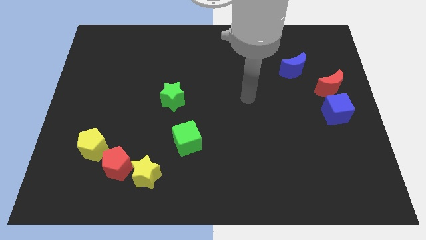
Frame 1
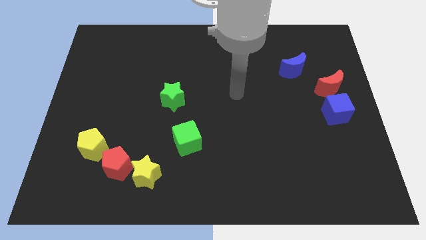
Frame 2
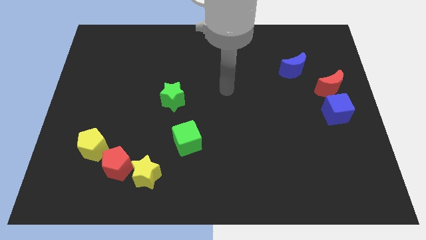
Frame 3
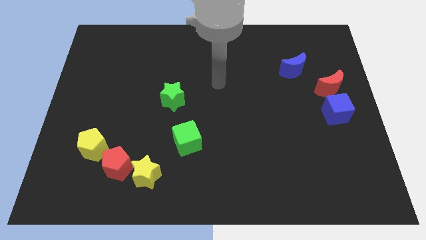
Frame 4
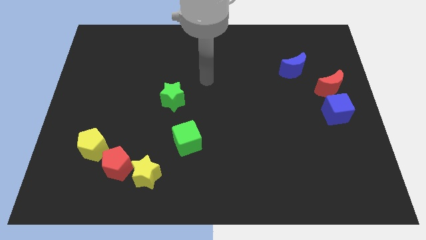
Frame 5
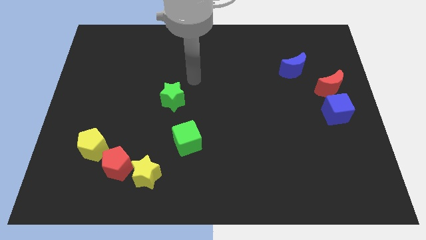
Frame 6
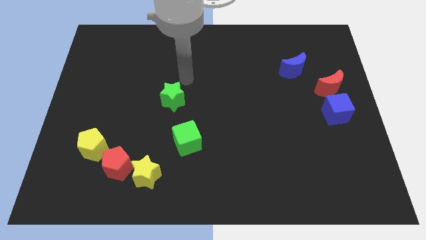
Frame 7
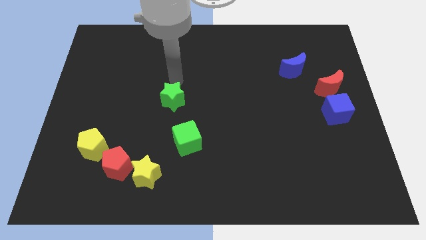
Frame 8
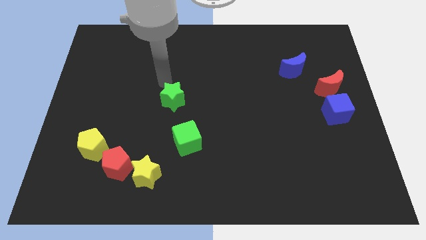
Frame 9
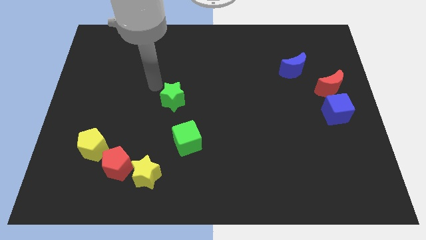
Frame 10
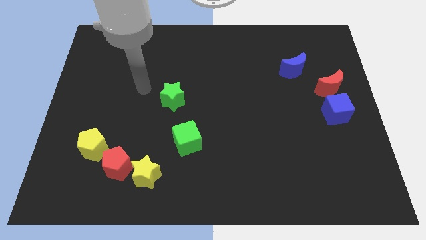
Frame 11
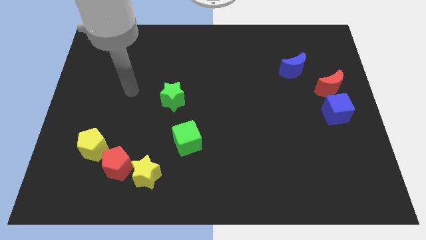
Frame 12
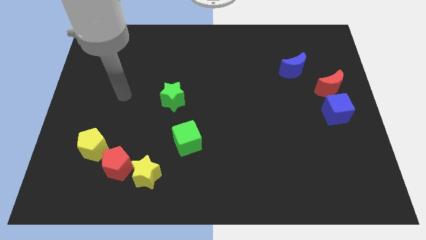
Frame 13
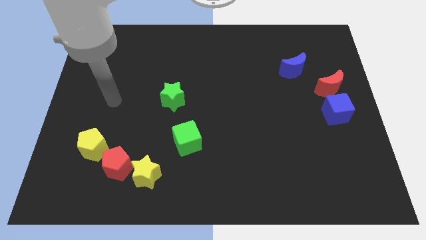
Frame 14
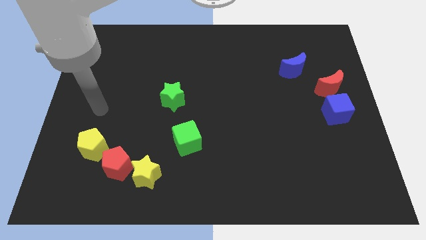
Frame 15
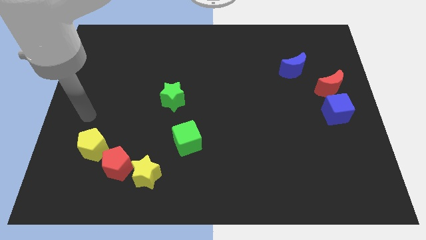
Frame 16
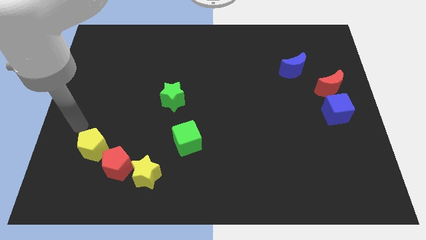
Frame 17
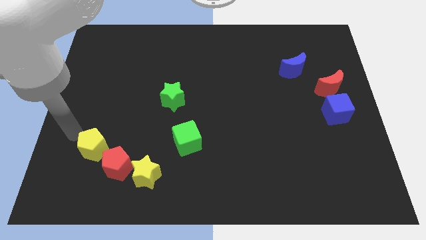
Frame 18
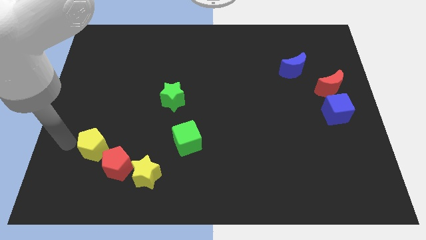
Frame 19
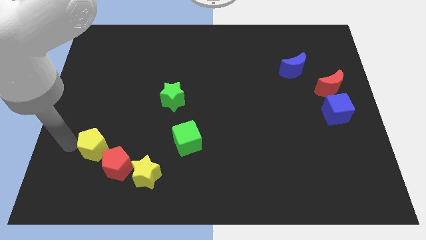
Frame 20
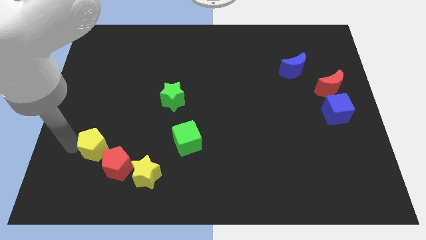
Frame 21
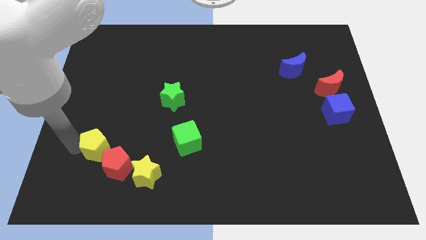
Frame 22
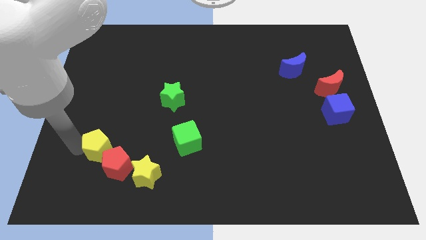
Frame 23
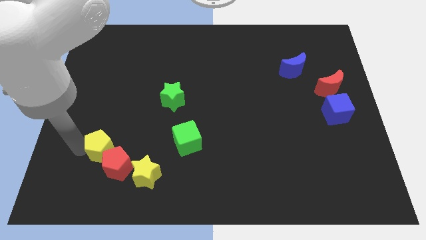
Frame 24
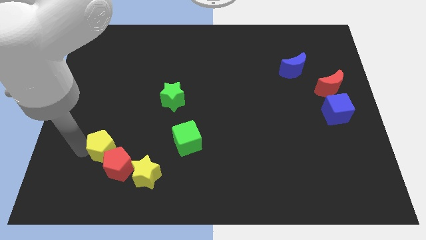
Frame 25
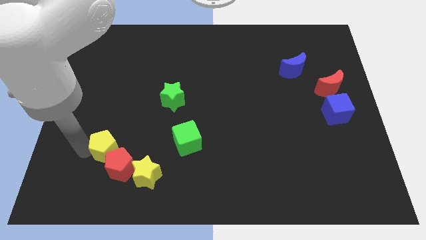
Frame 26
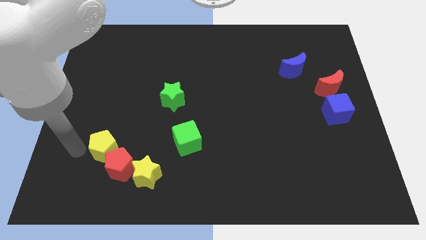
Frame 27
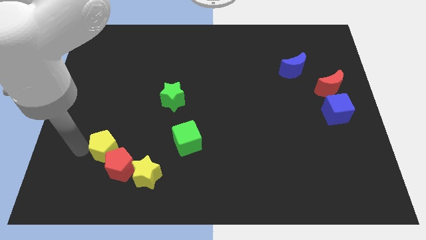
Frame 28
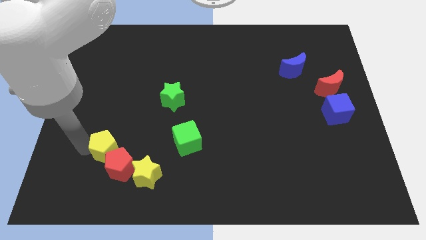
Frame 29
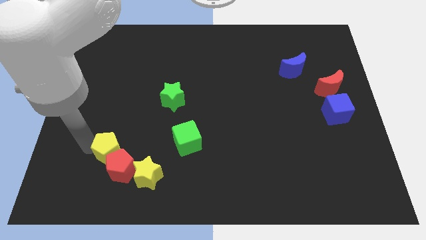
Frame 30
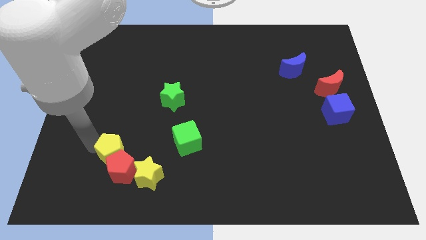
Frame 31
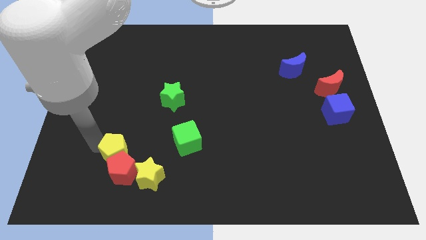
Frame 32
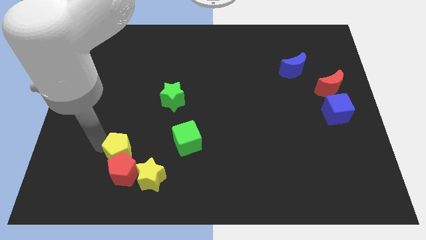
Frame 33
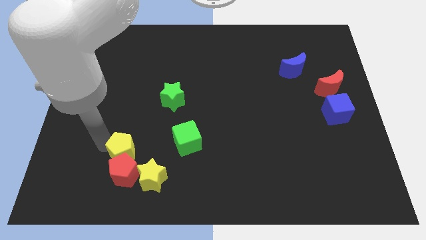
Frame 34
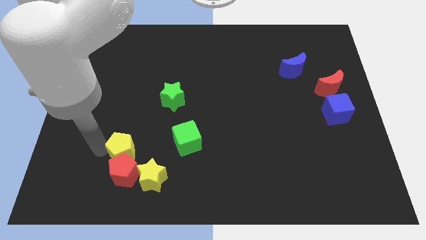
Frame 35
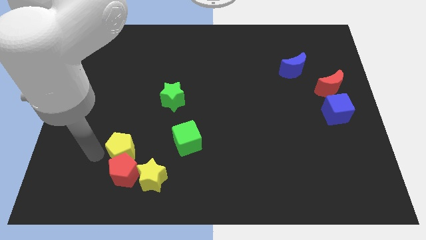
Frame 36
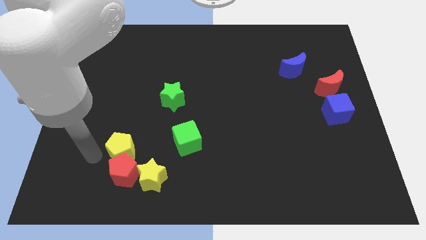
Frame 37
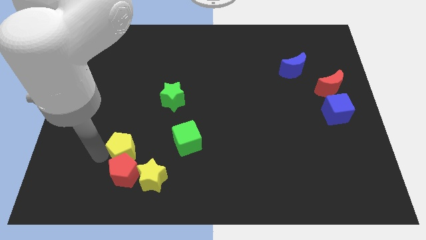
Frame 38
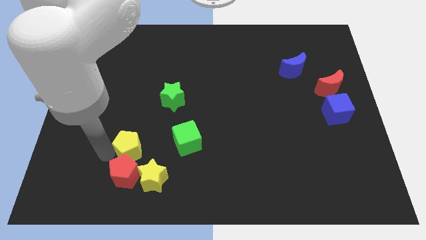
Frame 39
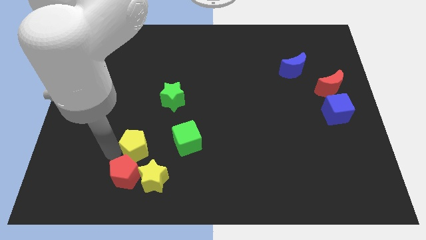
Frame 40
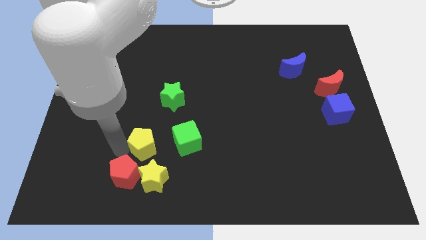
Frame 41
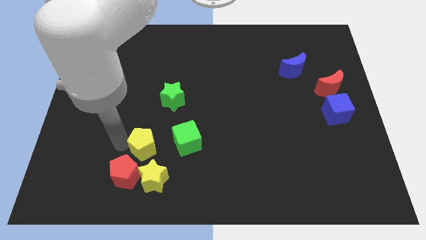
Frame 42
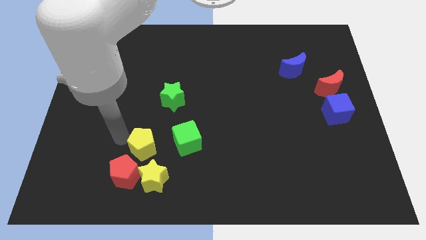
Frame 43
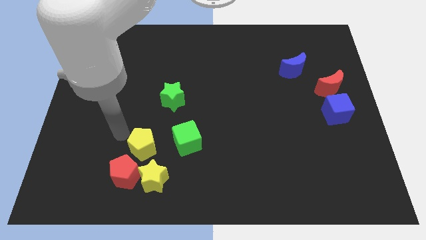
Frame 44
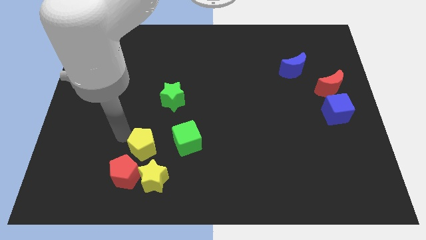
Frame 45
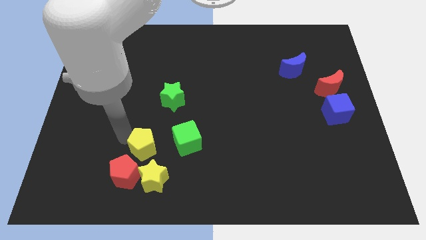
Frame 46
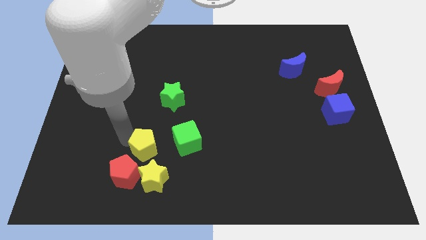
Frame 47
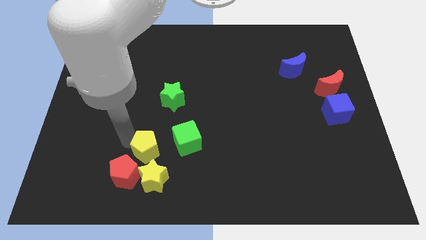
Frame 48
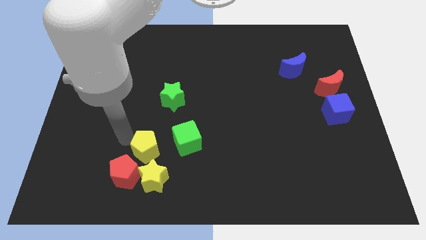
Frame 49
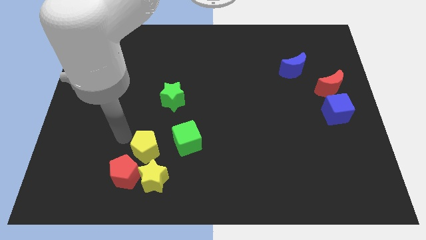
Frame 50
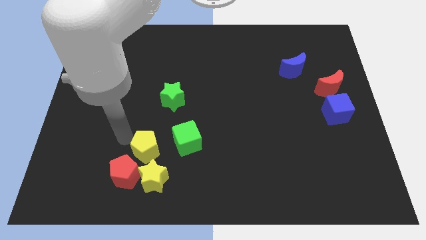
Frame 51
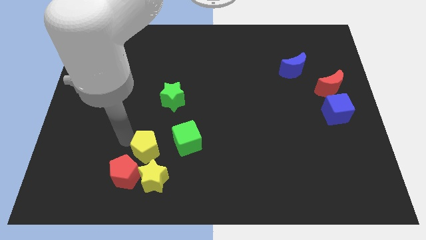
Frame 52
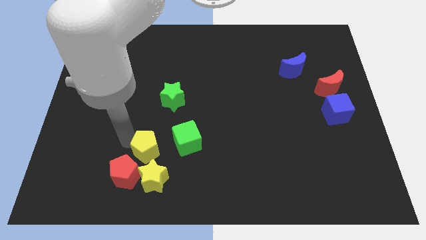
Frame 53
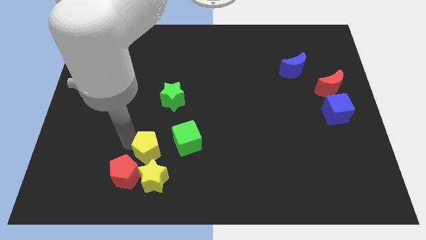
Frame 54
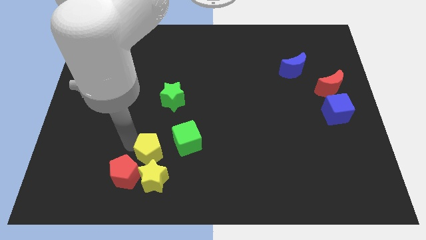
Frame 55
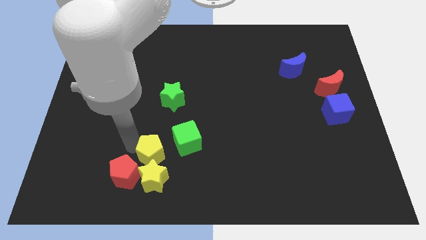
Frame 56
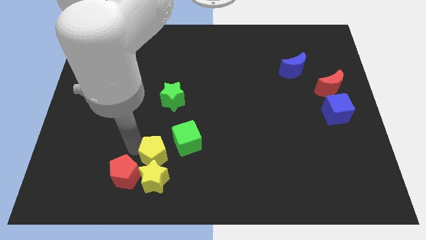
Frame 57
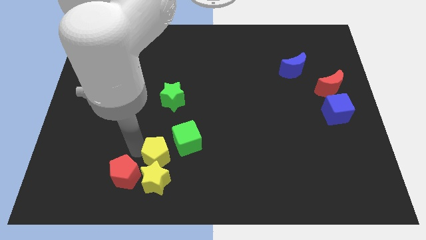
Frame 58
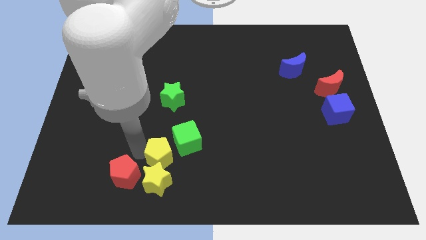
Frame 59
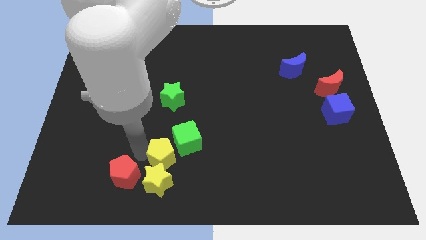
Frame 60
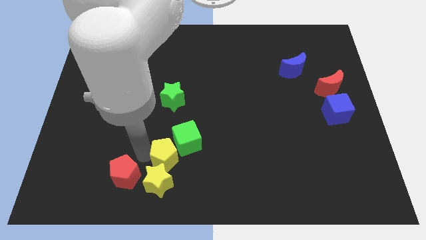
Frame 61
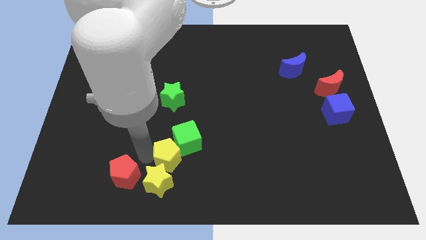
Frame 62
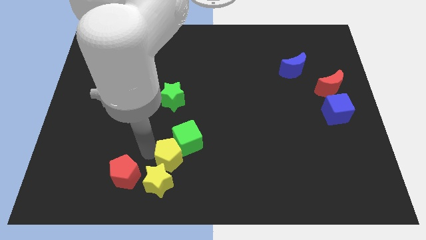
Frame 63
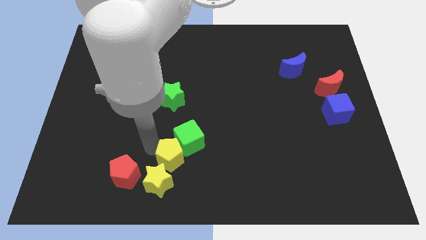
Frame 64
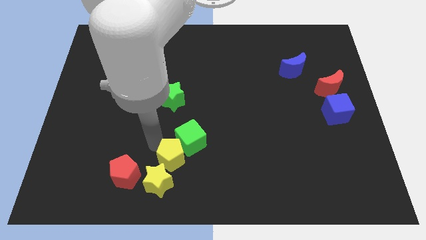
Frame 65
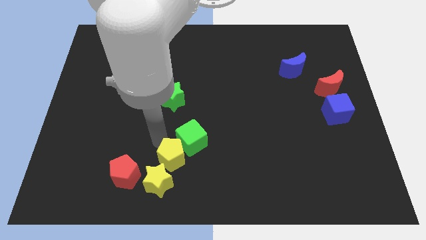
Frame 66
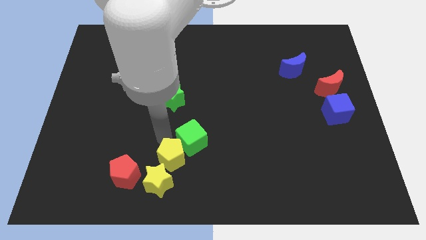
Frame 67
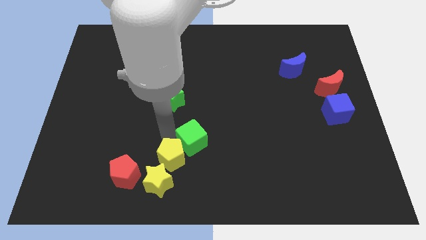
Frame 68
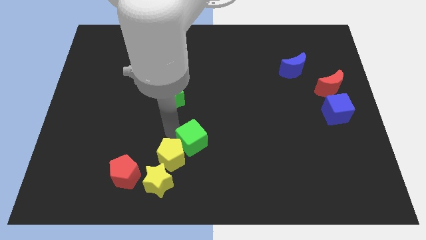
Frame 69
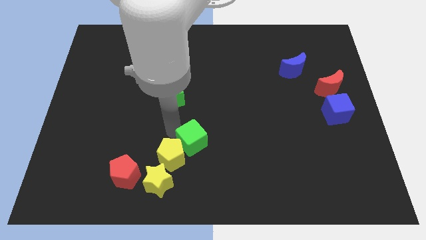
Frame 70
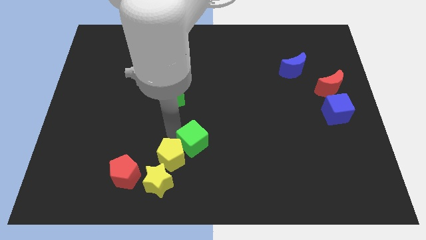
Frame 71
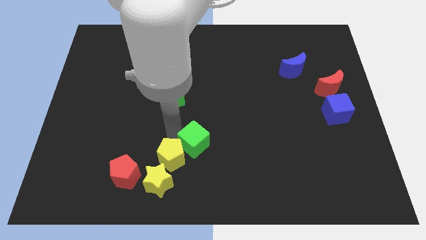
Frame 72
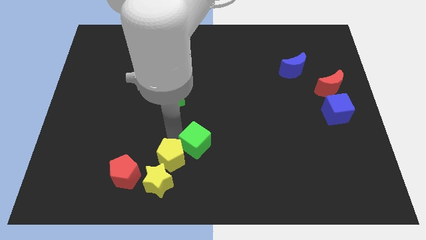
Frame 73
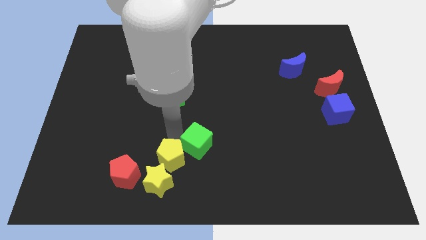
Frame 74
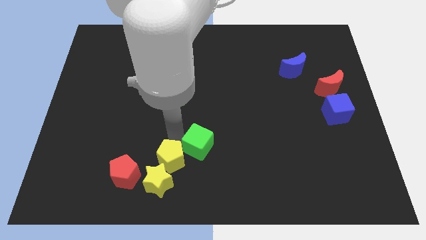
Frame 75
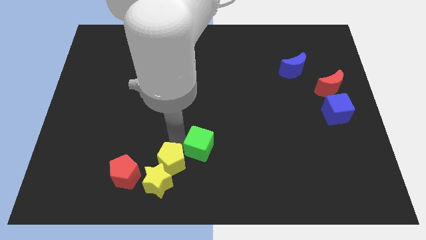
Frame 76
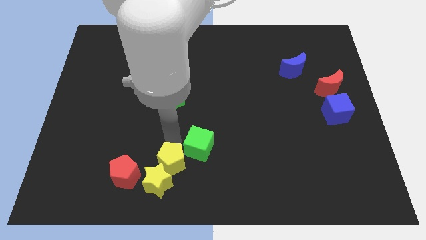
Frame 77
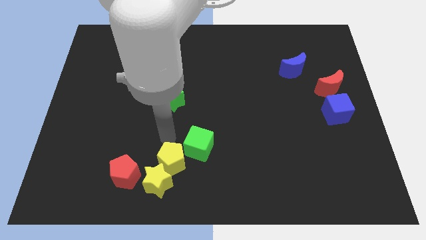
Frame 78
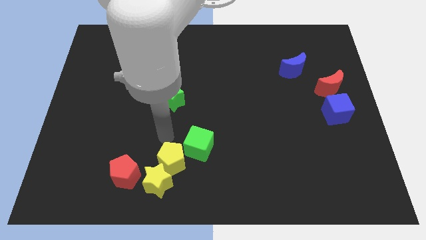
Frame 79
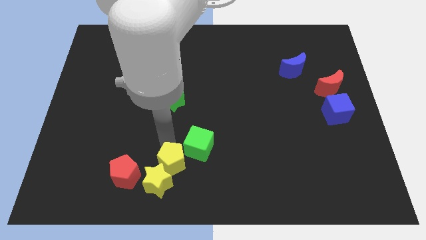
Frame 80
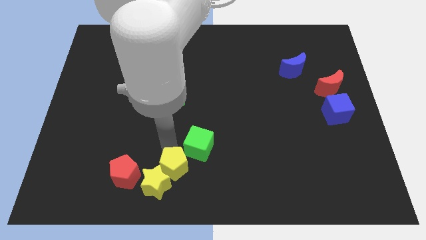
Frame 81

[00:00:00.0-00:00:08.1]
push the yellow pentagon to the bottom side
